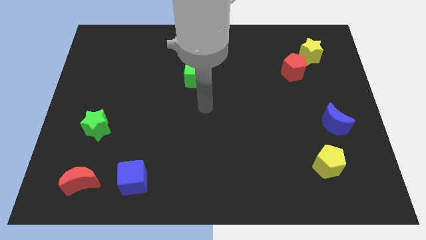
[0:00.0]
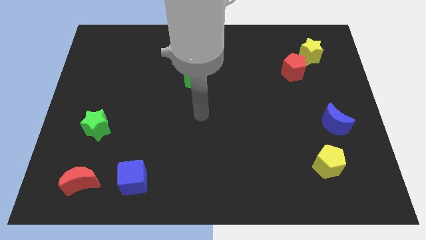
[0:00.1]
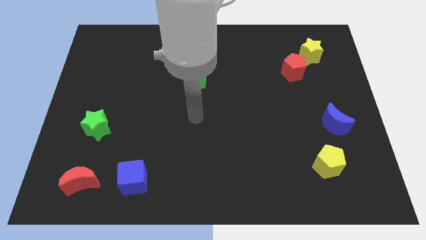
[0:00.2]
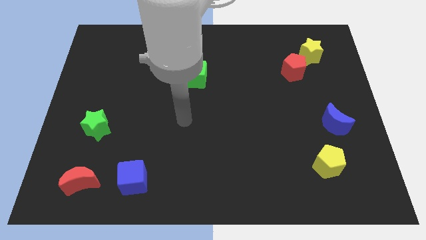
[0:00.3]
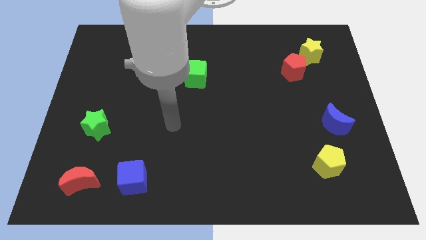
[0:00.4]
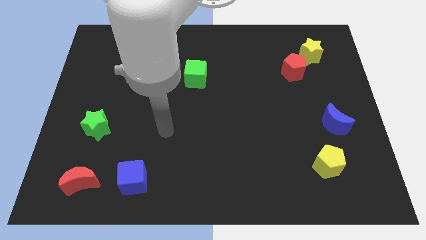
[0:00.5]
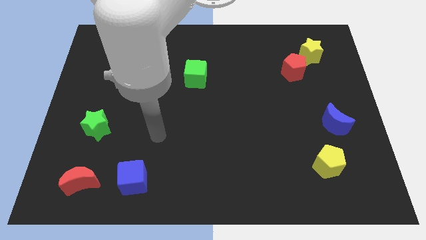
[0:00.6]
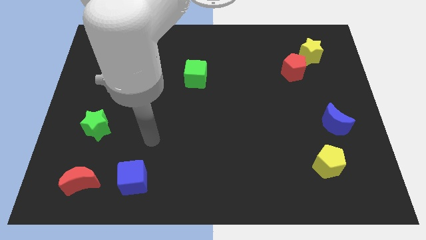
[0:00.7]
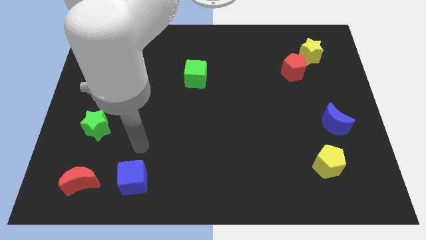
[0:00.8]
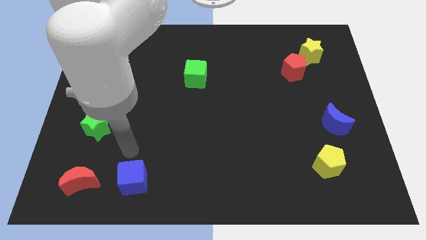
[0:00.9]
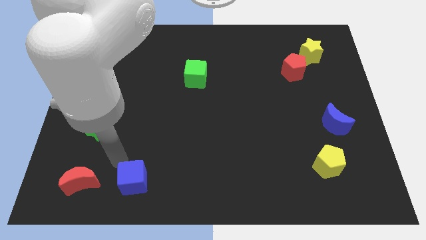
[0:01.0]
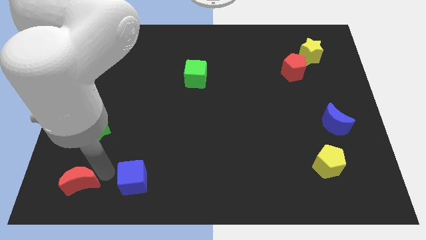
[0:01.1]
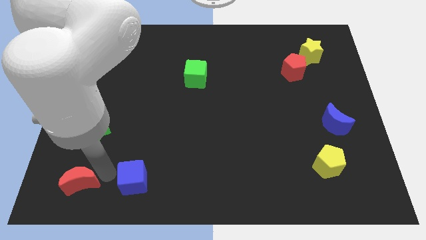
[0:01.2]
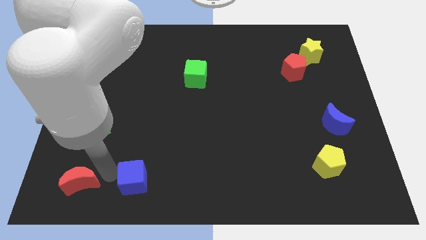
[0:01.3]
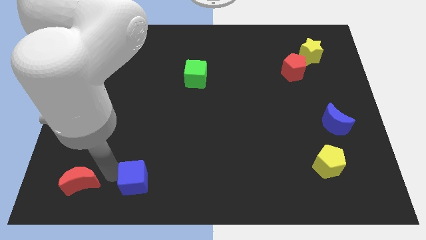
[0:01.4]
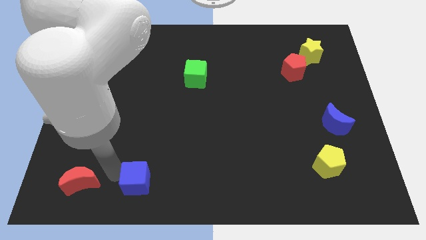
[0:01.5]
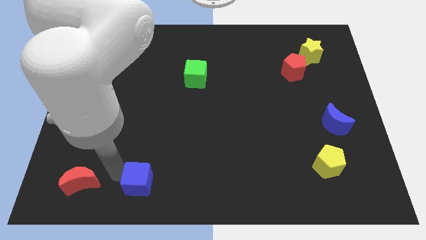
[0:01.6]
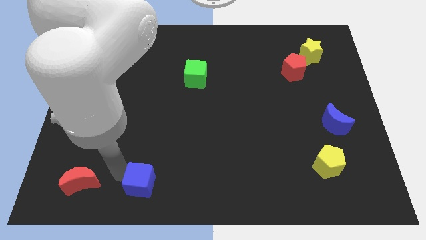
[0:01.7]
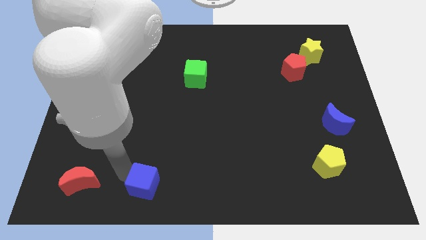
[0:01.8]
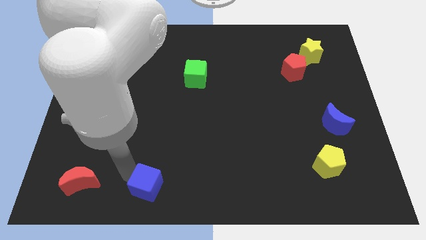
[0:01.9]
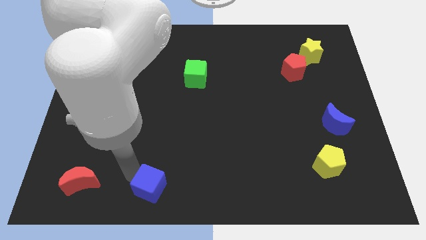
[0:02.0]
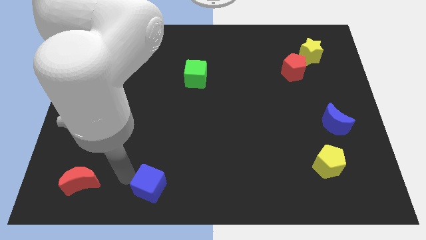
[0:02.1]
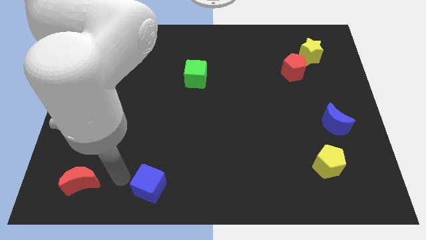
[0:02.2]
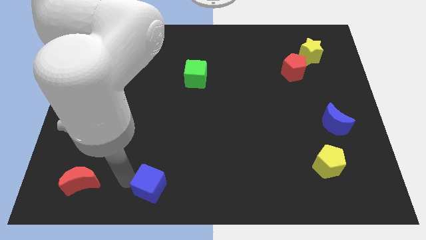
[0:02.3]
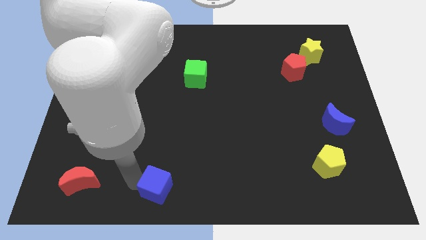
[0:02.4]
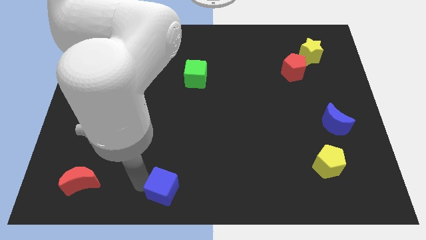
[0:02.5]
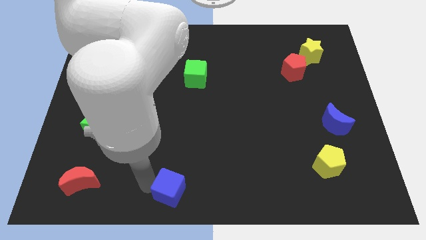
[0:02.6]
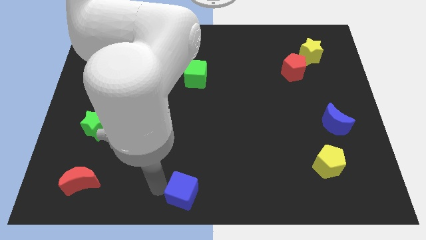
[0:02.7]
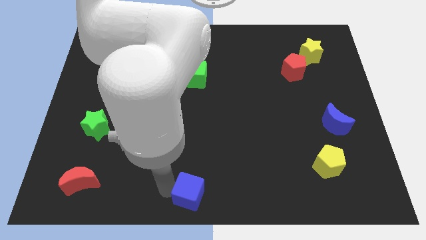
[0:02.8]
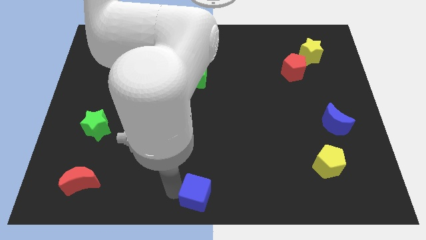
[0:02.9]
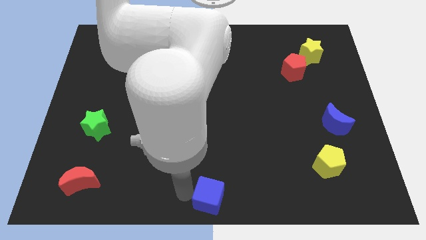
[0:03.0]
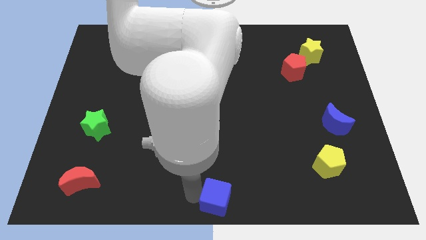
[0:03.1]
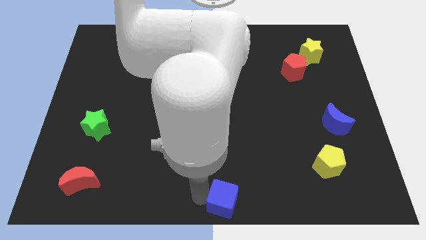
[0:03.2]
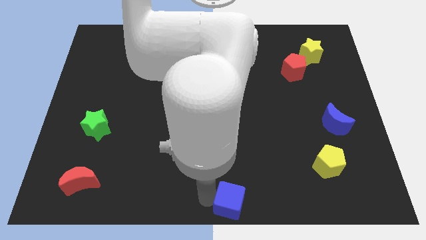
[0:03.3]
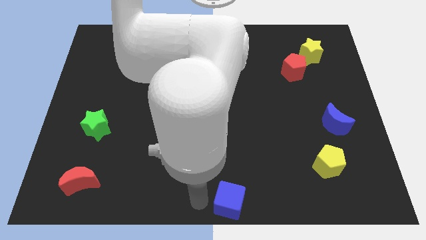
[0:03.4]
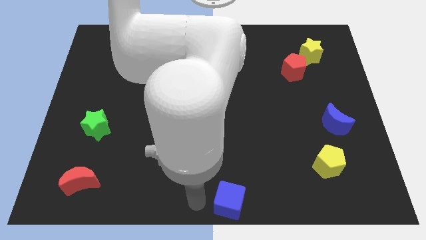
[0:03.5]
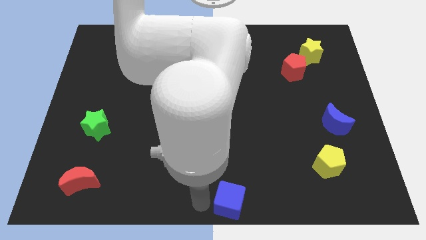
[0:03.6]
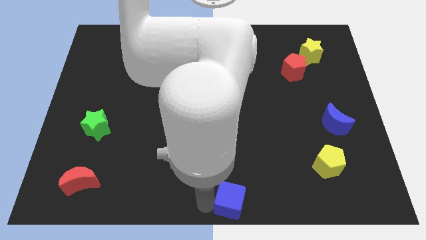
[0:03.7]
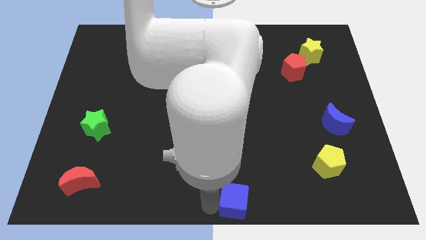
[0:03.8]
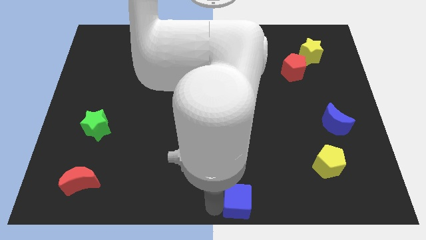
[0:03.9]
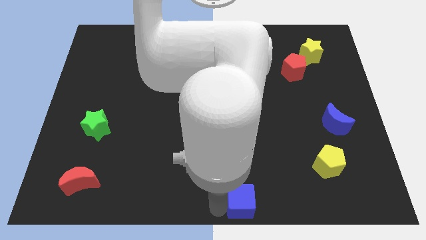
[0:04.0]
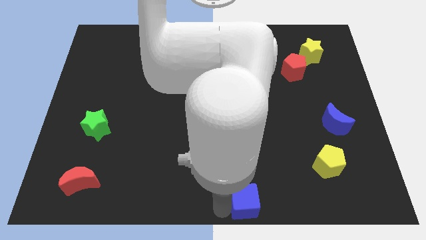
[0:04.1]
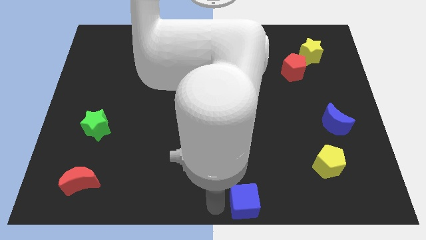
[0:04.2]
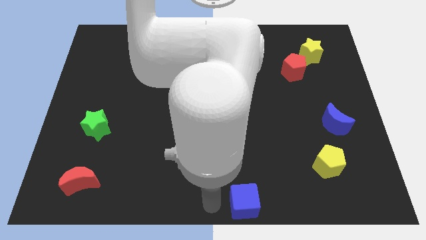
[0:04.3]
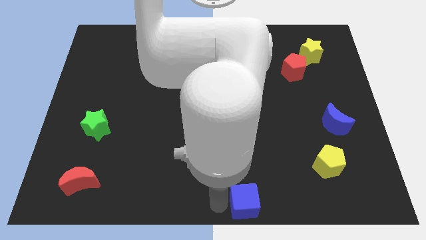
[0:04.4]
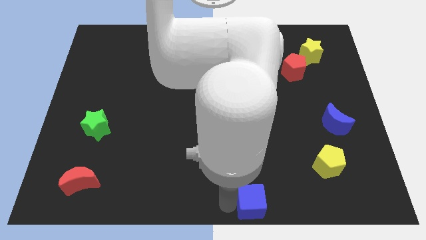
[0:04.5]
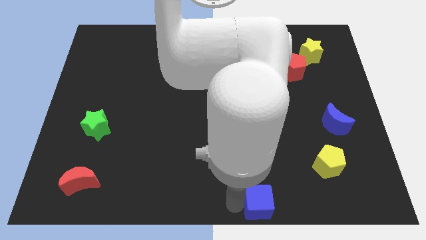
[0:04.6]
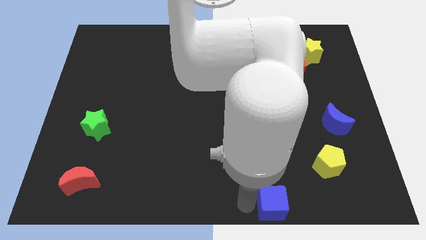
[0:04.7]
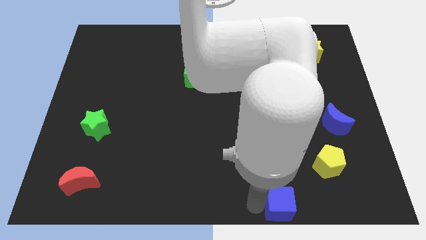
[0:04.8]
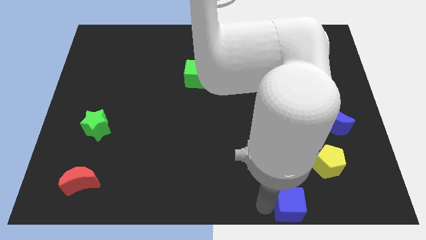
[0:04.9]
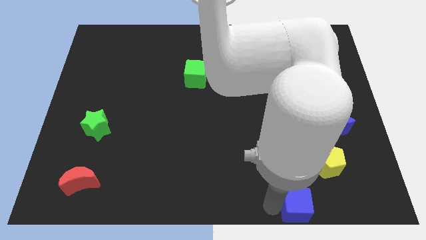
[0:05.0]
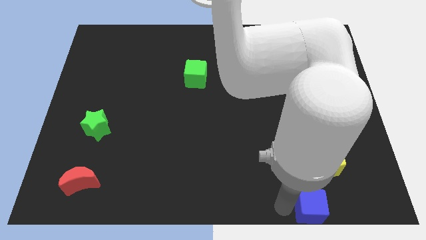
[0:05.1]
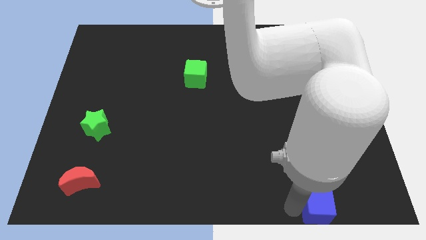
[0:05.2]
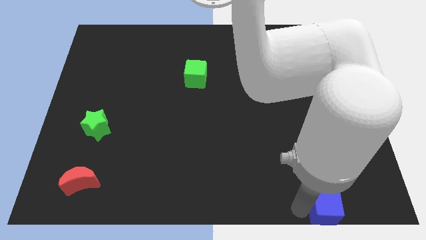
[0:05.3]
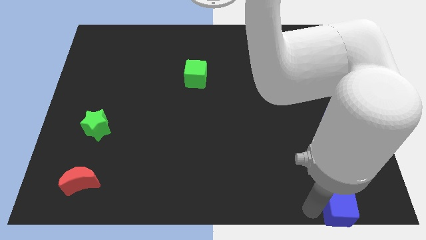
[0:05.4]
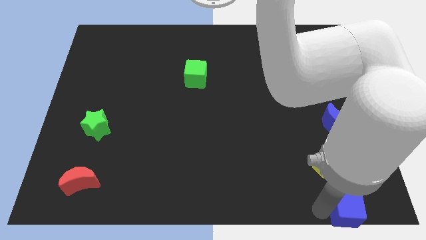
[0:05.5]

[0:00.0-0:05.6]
move the blue cube to the bottom right

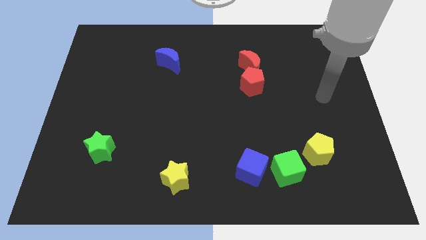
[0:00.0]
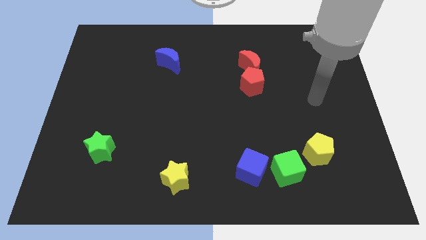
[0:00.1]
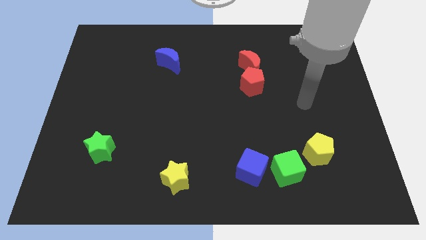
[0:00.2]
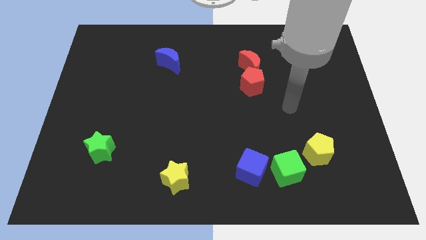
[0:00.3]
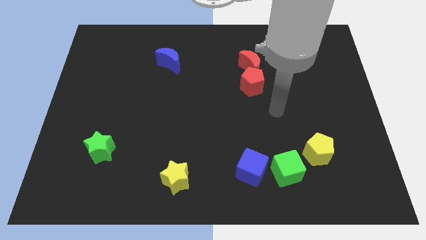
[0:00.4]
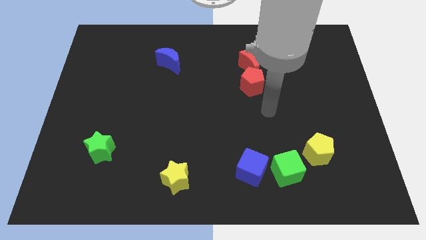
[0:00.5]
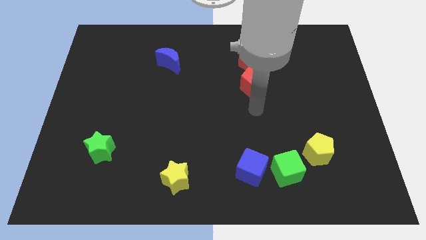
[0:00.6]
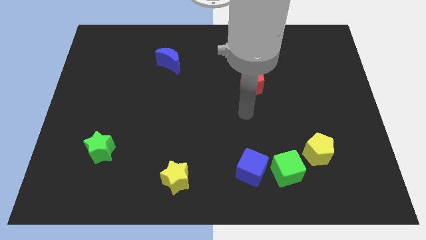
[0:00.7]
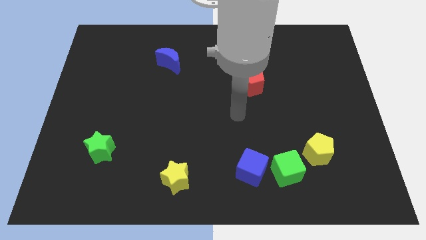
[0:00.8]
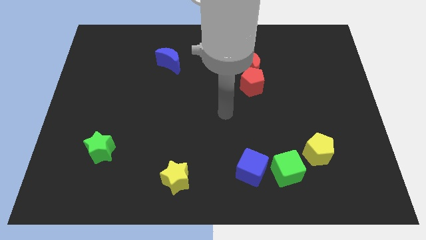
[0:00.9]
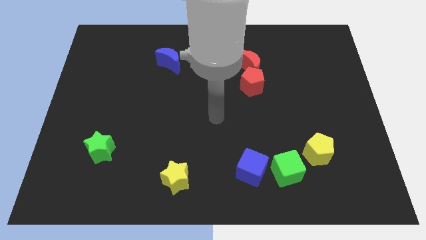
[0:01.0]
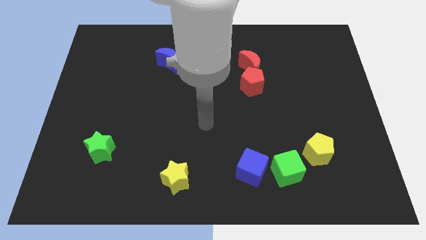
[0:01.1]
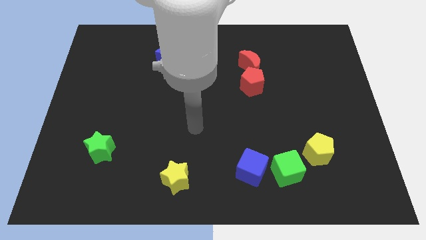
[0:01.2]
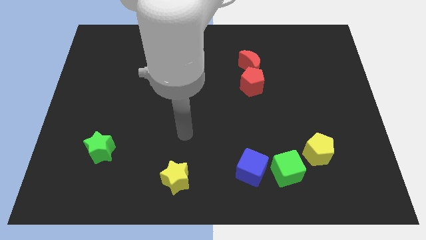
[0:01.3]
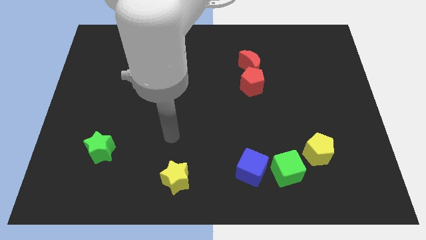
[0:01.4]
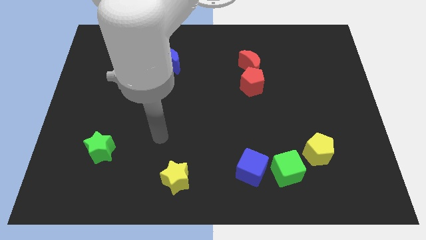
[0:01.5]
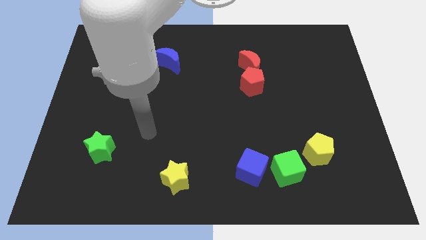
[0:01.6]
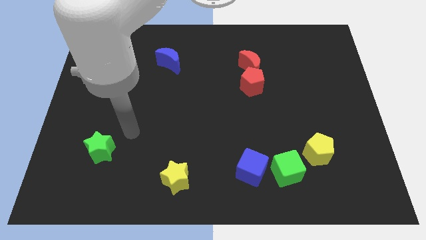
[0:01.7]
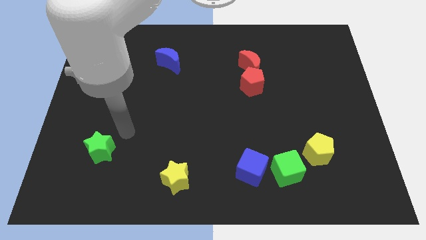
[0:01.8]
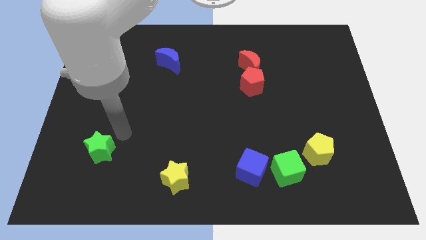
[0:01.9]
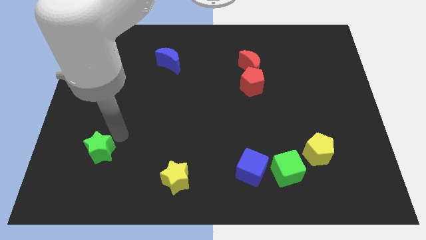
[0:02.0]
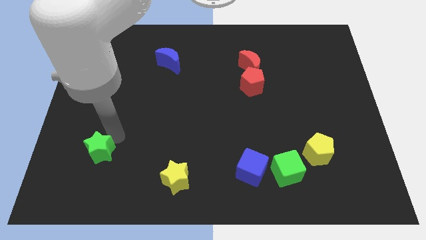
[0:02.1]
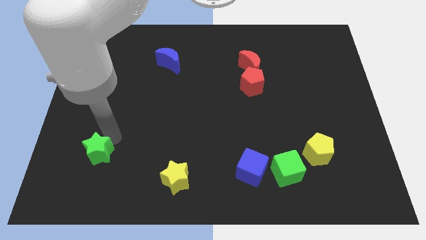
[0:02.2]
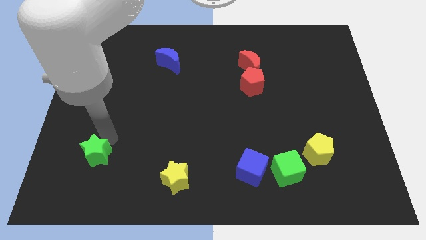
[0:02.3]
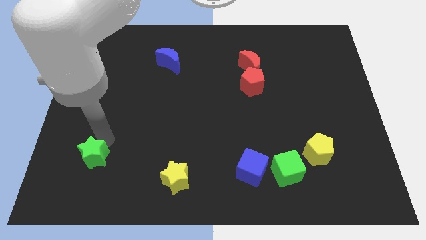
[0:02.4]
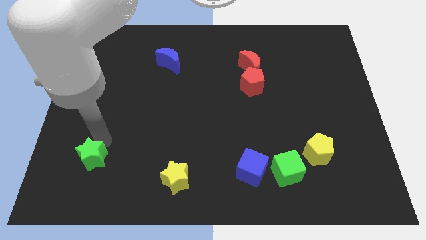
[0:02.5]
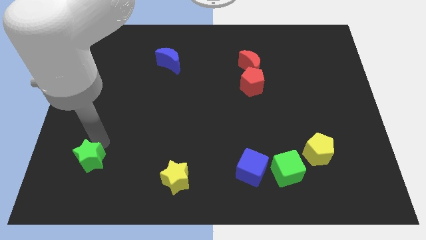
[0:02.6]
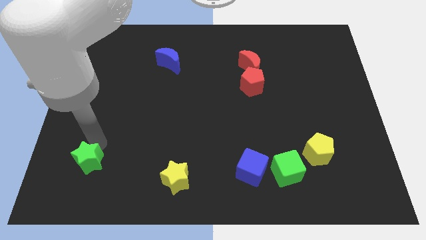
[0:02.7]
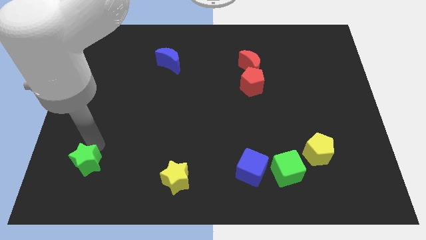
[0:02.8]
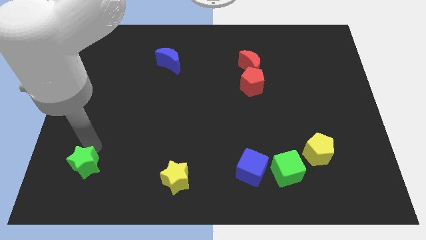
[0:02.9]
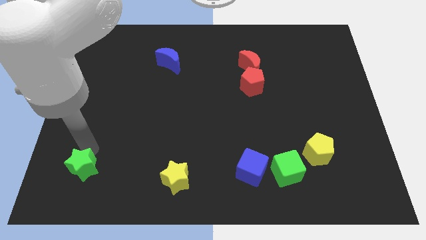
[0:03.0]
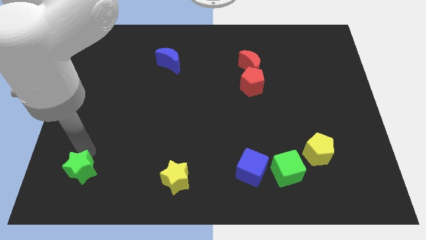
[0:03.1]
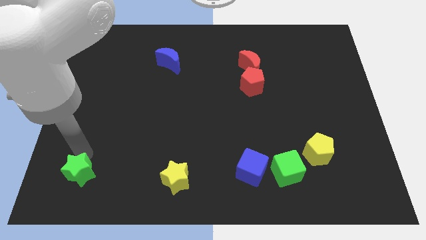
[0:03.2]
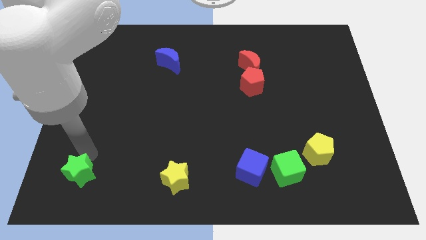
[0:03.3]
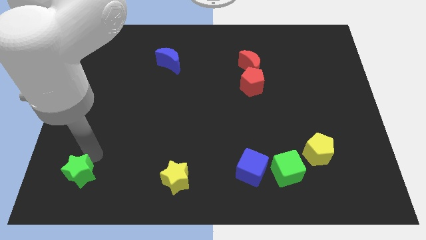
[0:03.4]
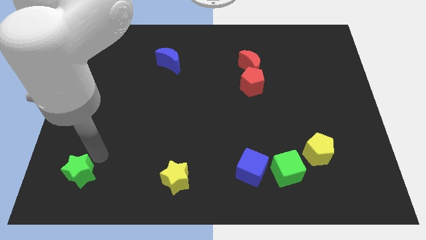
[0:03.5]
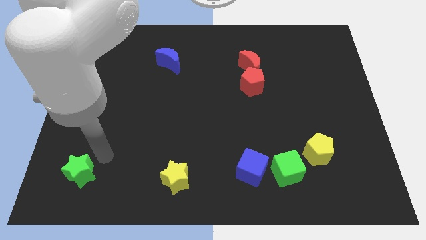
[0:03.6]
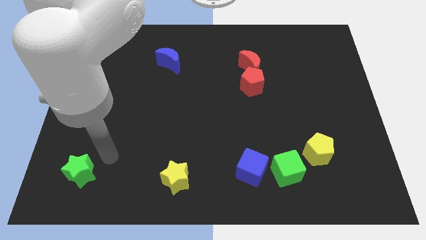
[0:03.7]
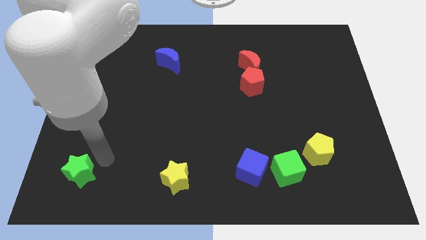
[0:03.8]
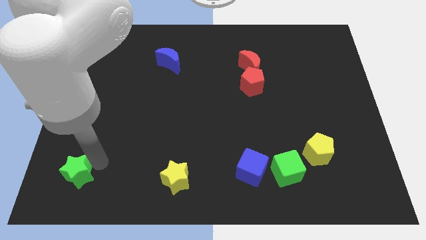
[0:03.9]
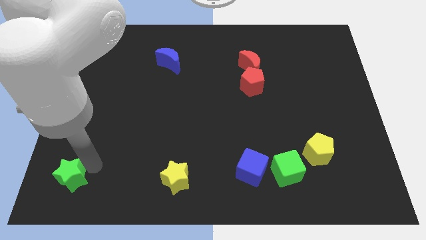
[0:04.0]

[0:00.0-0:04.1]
put the green star to the bottom left of the board
